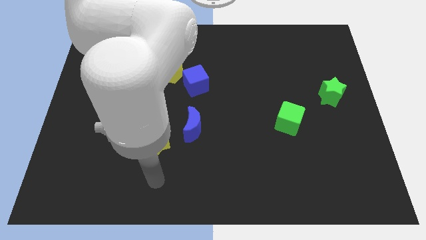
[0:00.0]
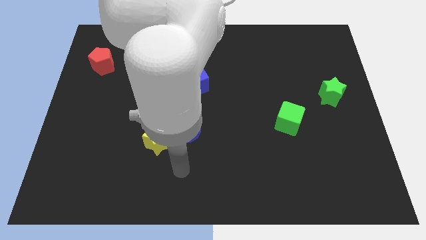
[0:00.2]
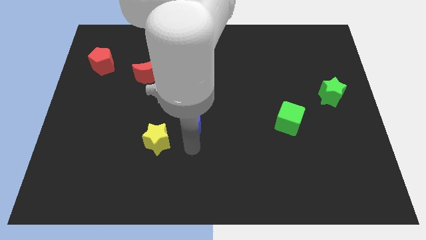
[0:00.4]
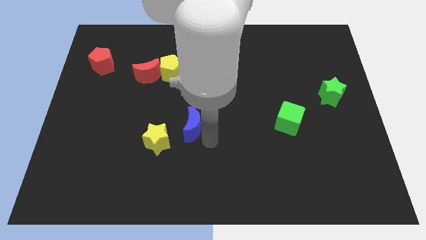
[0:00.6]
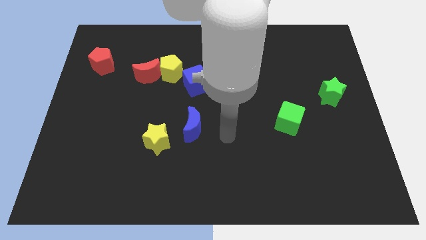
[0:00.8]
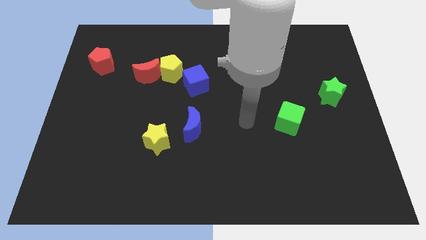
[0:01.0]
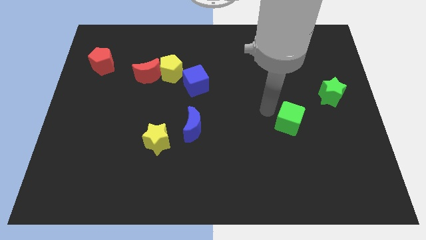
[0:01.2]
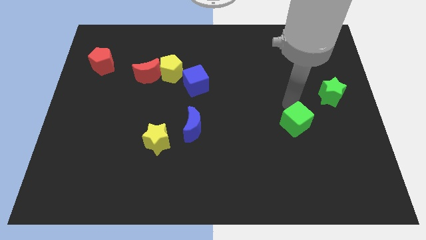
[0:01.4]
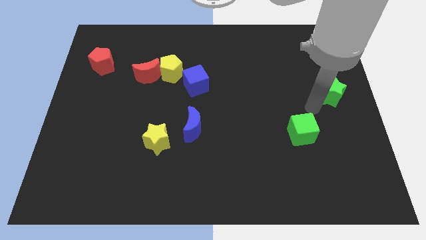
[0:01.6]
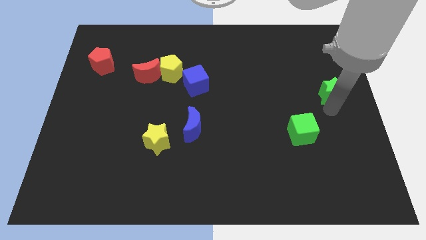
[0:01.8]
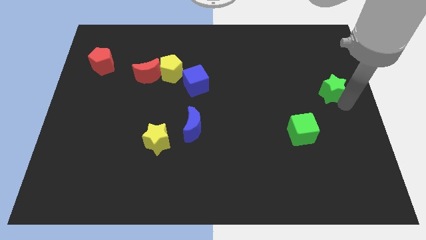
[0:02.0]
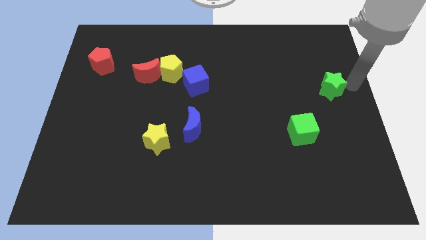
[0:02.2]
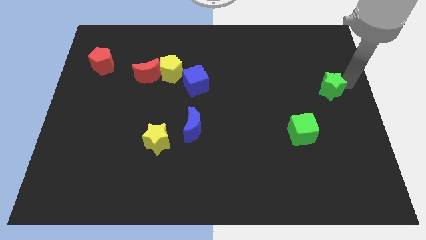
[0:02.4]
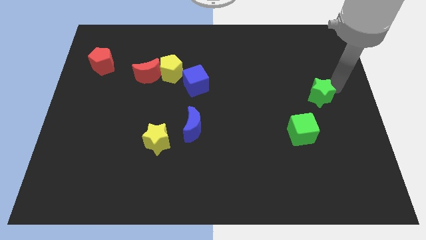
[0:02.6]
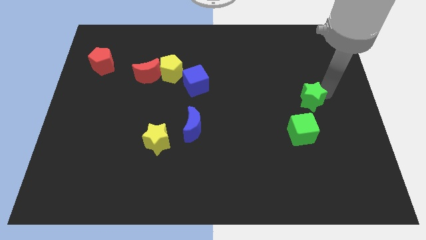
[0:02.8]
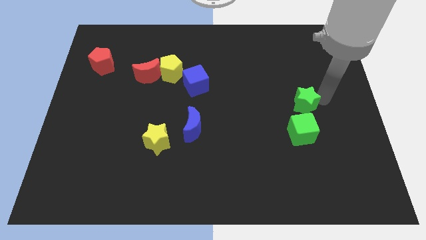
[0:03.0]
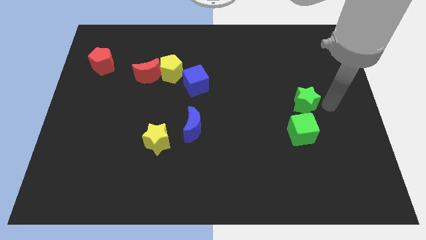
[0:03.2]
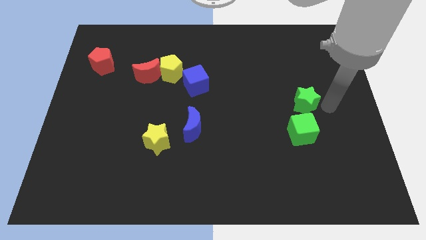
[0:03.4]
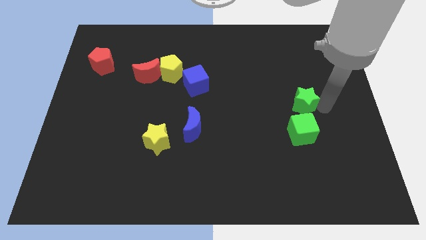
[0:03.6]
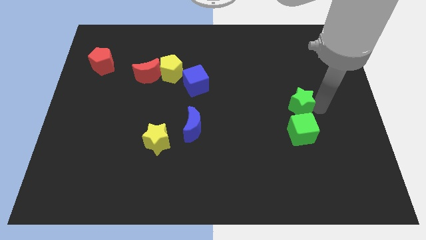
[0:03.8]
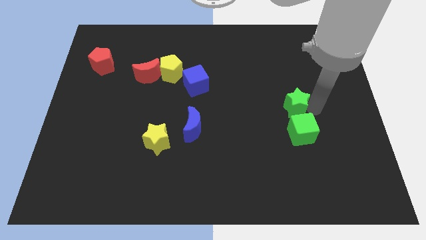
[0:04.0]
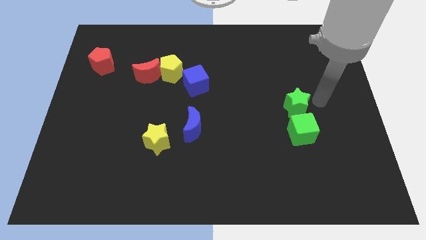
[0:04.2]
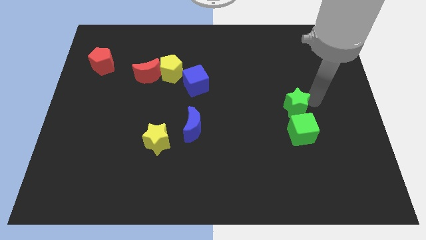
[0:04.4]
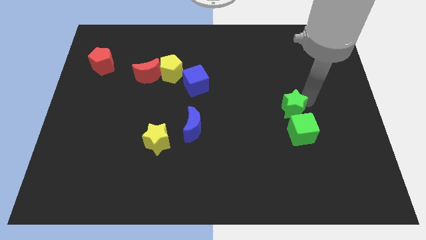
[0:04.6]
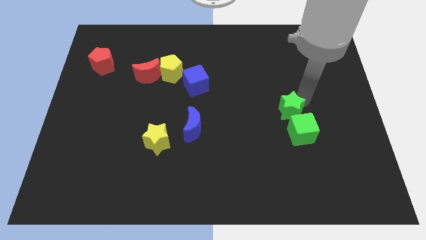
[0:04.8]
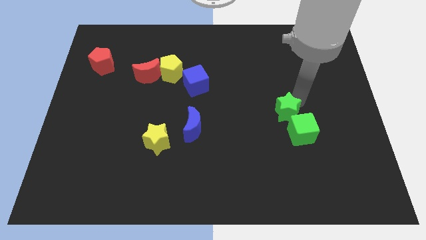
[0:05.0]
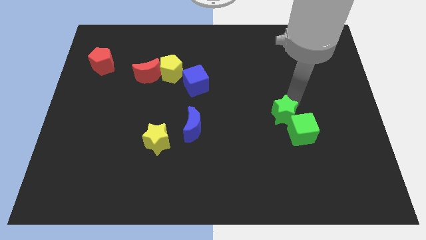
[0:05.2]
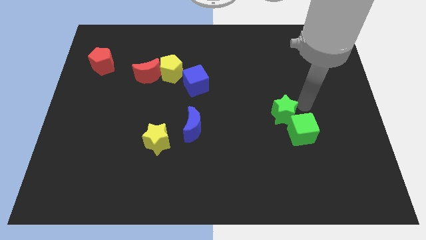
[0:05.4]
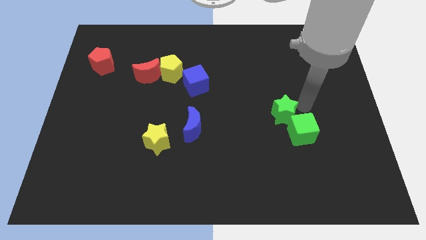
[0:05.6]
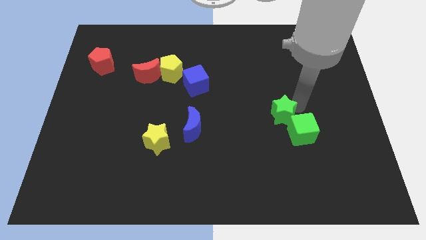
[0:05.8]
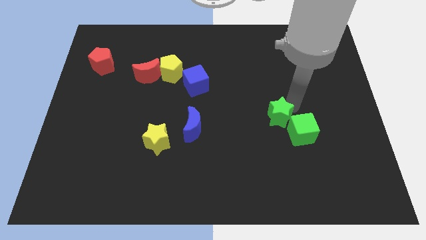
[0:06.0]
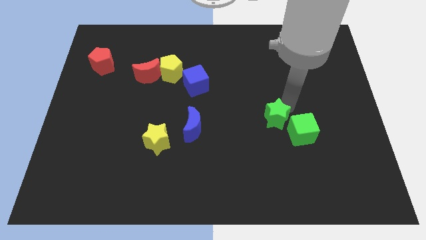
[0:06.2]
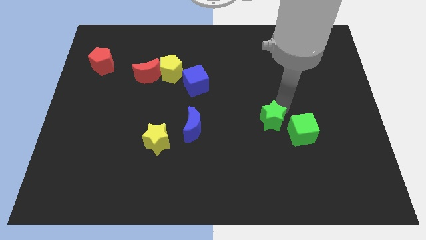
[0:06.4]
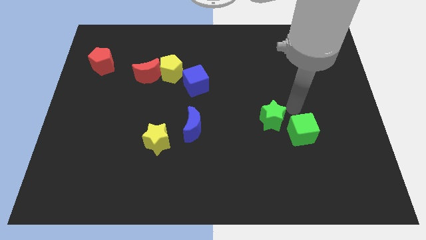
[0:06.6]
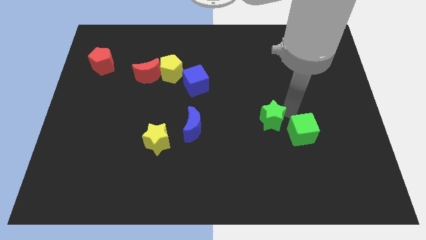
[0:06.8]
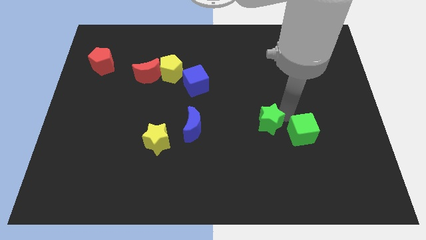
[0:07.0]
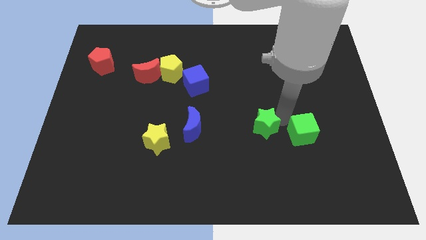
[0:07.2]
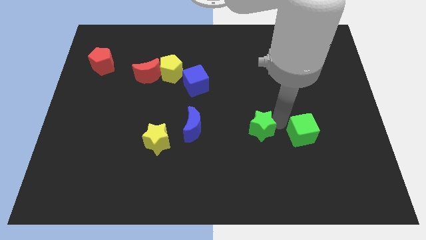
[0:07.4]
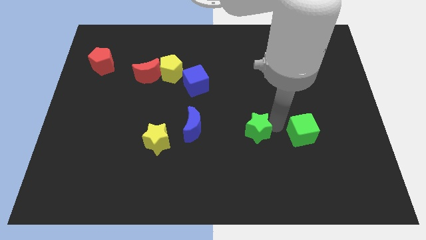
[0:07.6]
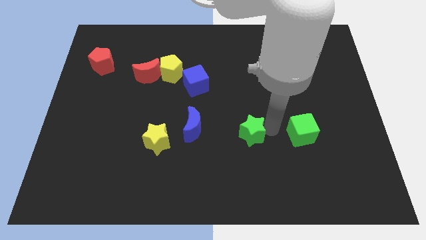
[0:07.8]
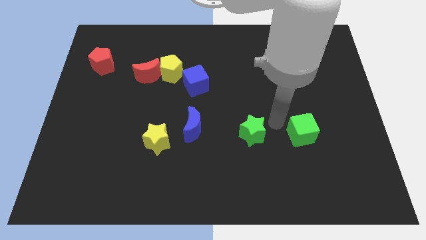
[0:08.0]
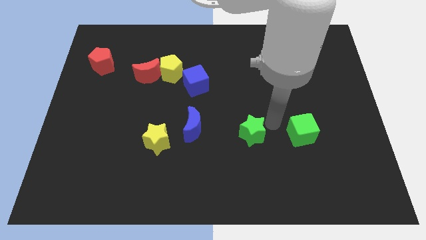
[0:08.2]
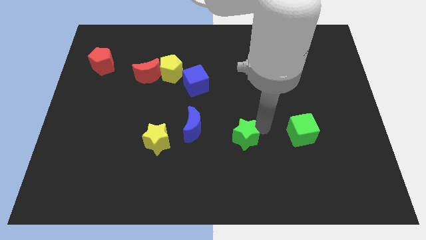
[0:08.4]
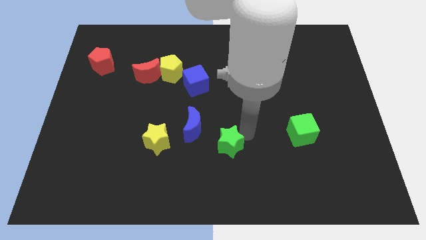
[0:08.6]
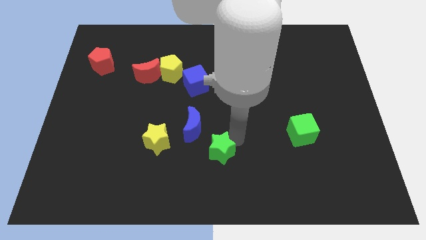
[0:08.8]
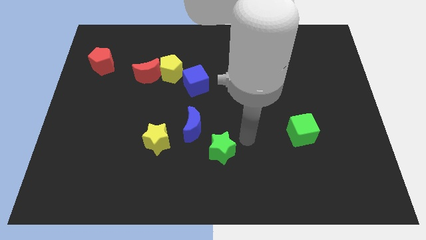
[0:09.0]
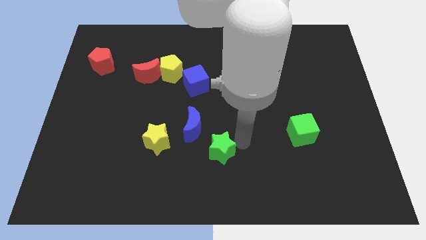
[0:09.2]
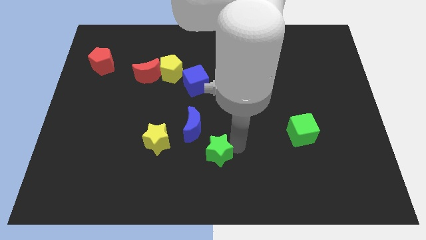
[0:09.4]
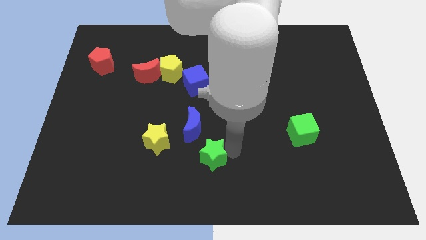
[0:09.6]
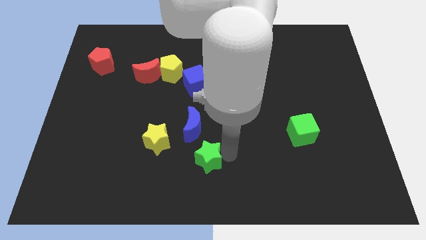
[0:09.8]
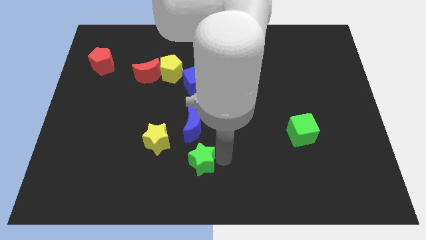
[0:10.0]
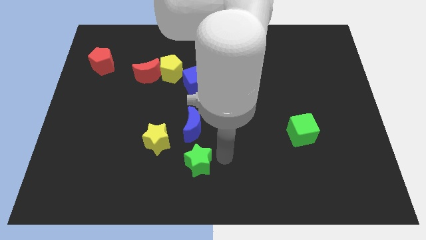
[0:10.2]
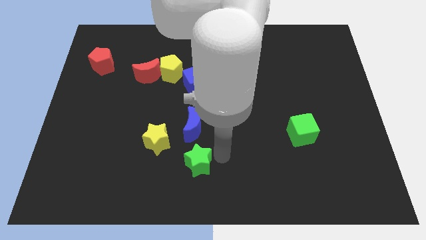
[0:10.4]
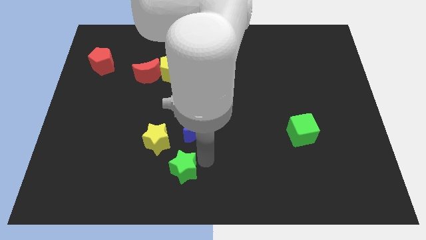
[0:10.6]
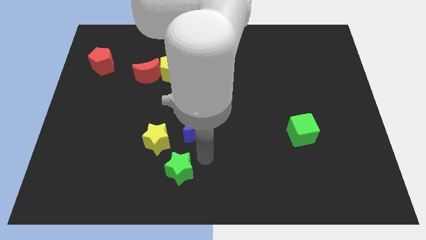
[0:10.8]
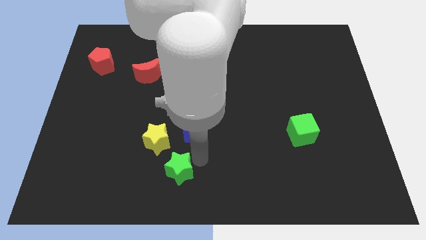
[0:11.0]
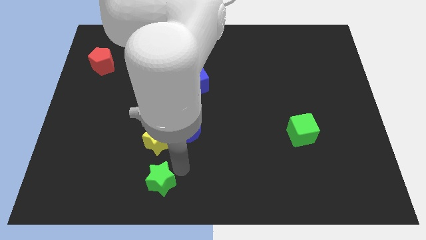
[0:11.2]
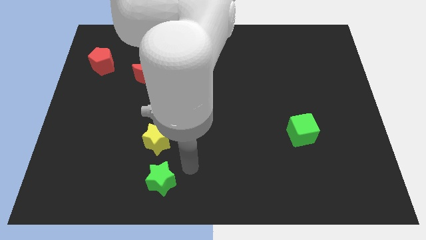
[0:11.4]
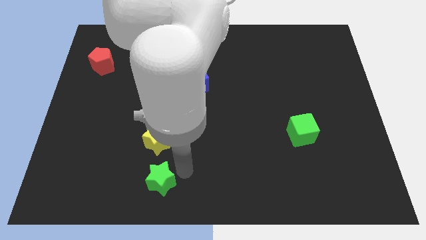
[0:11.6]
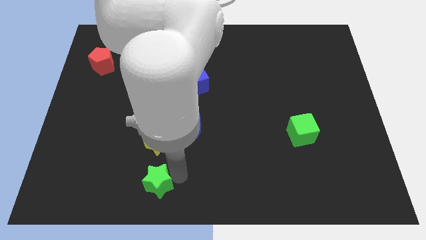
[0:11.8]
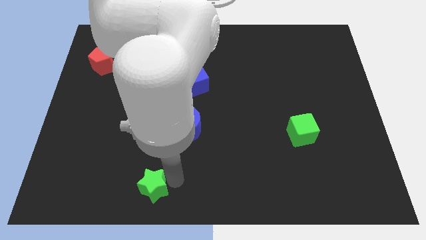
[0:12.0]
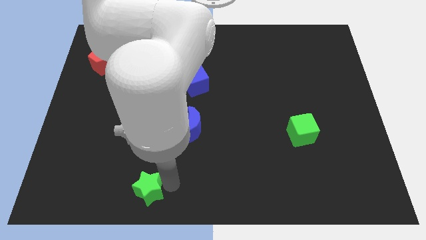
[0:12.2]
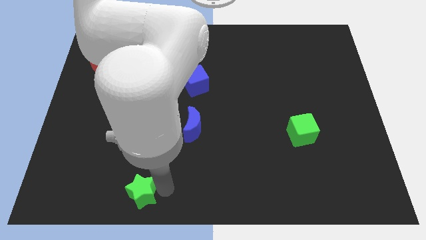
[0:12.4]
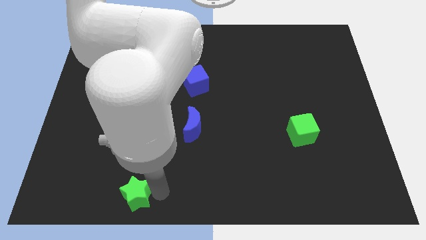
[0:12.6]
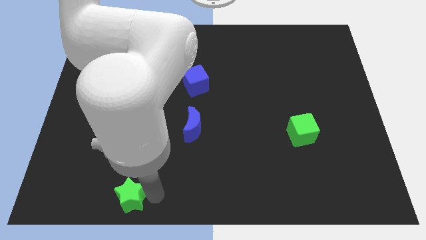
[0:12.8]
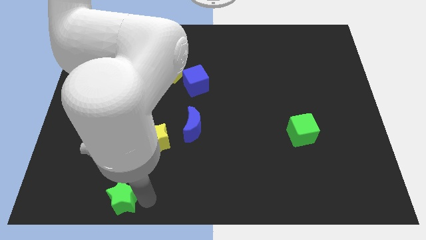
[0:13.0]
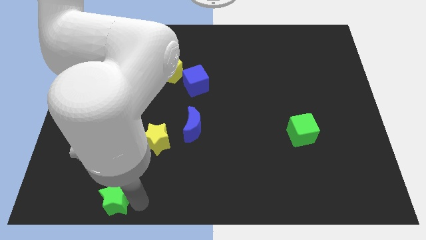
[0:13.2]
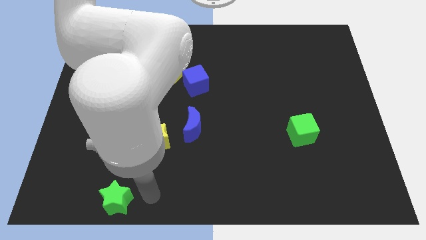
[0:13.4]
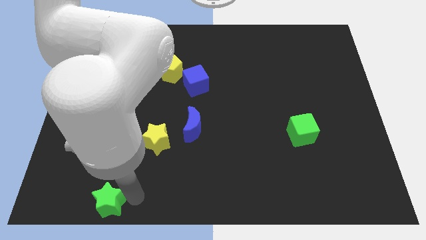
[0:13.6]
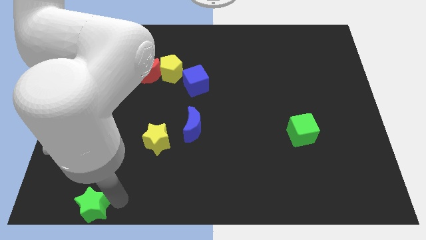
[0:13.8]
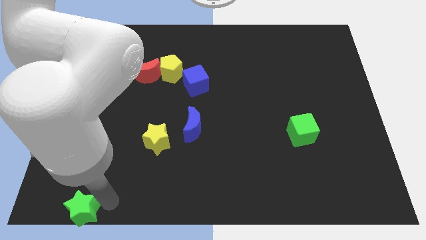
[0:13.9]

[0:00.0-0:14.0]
slide the green star to the bottom left
